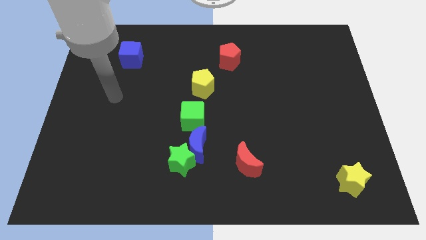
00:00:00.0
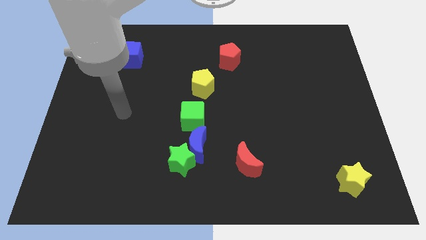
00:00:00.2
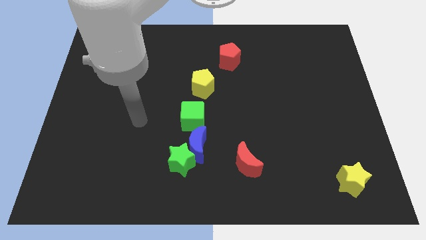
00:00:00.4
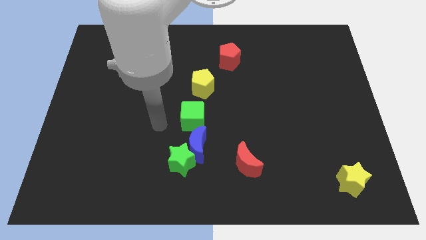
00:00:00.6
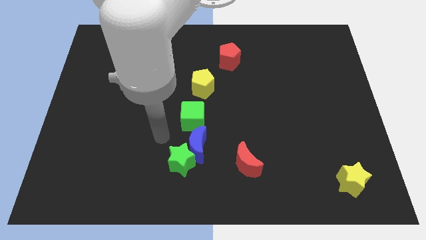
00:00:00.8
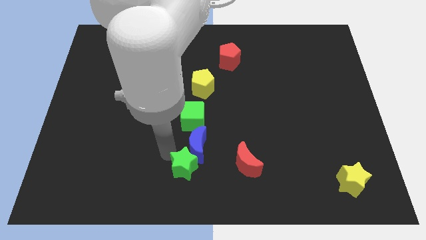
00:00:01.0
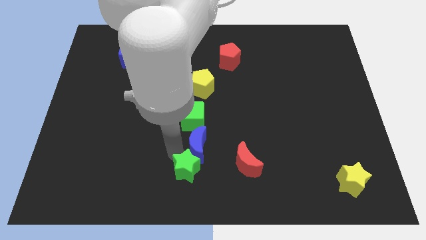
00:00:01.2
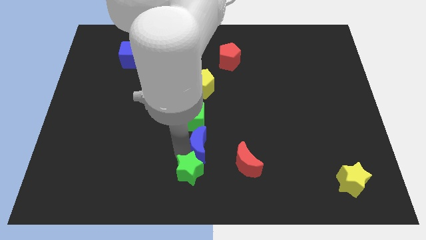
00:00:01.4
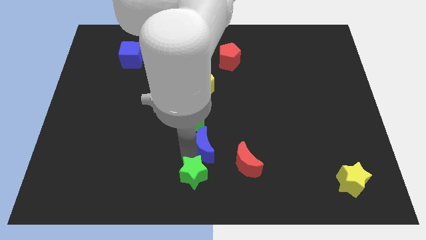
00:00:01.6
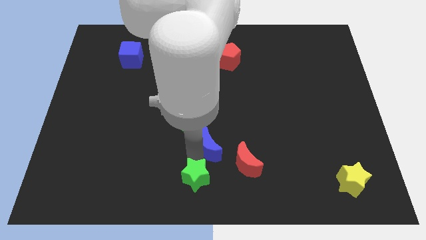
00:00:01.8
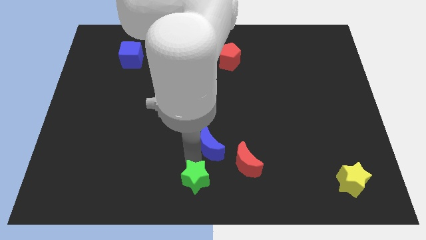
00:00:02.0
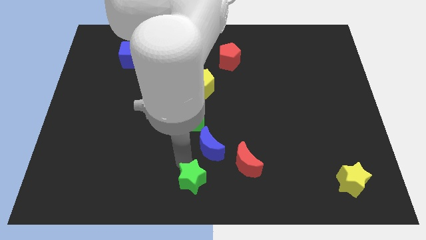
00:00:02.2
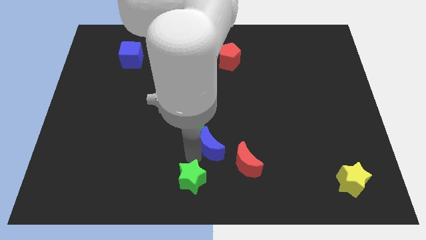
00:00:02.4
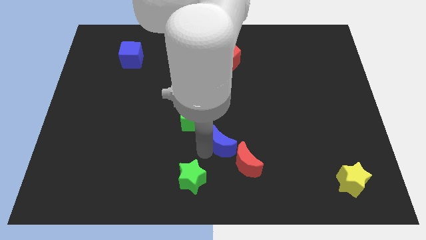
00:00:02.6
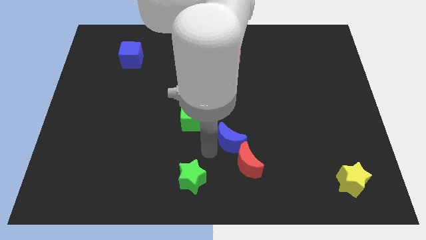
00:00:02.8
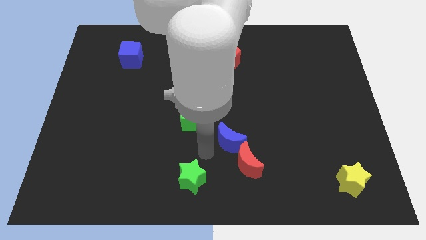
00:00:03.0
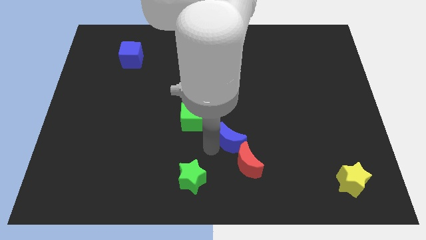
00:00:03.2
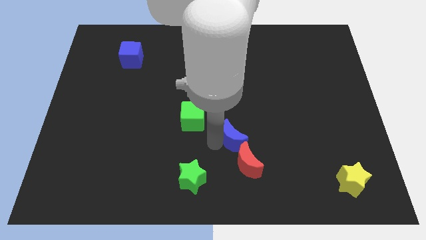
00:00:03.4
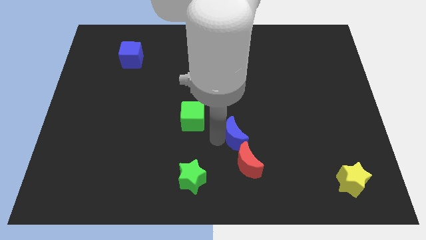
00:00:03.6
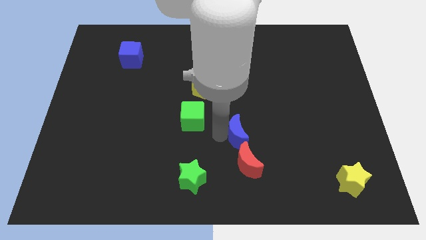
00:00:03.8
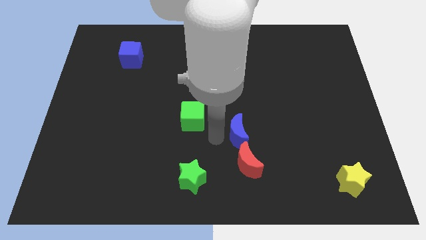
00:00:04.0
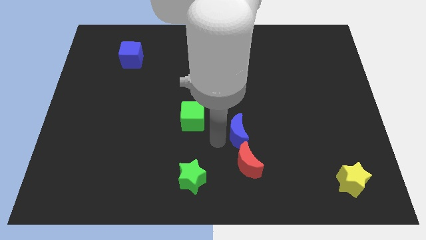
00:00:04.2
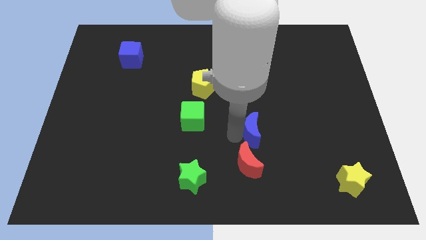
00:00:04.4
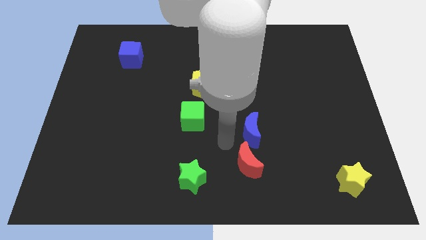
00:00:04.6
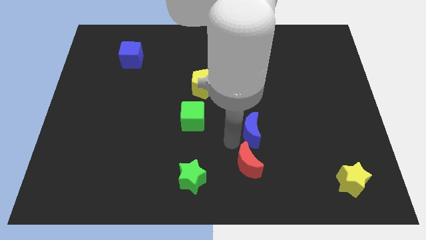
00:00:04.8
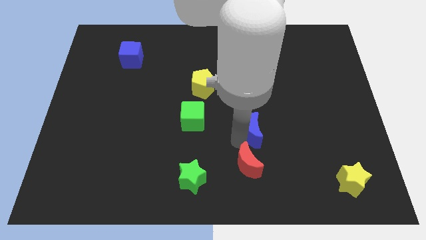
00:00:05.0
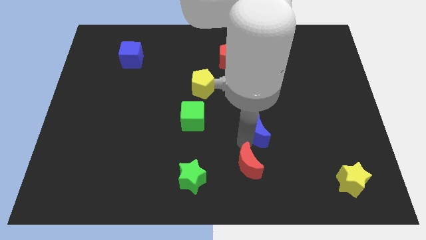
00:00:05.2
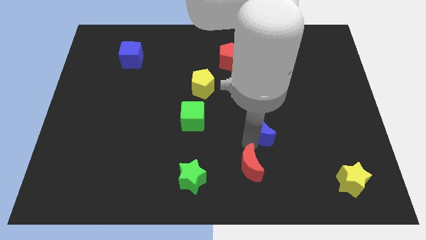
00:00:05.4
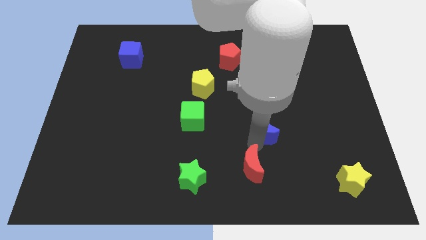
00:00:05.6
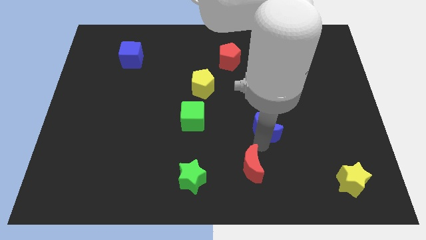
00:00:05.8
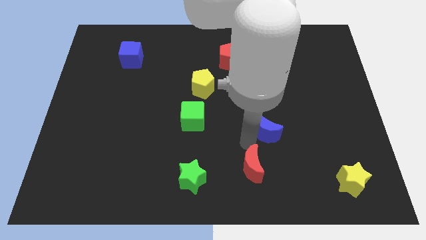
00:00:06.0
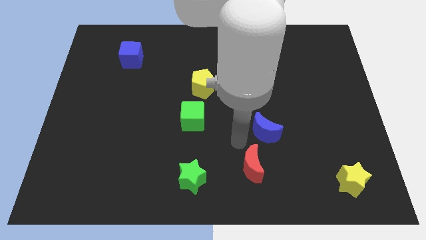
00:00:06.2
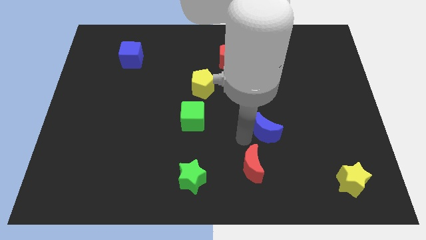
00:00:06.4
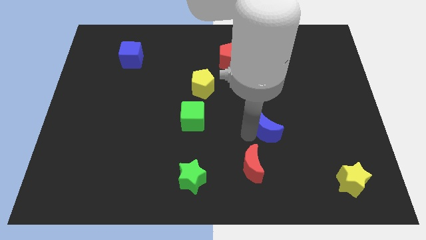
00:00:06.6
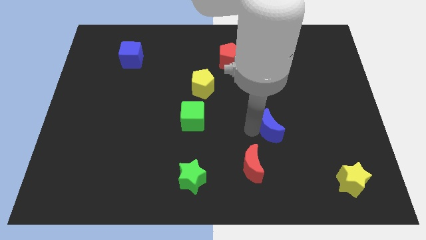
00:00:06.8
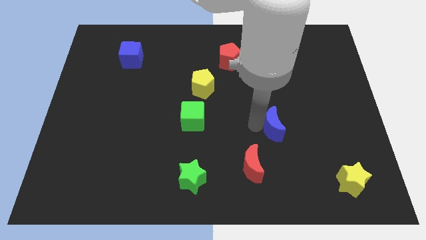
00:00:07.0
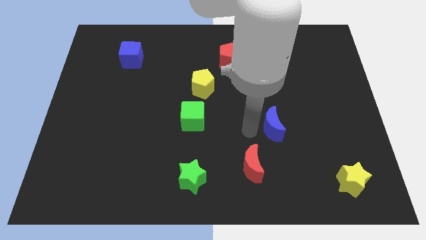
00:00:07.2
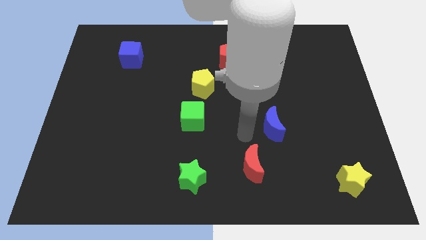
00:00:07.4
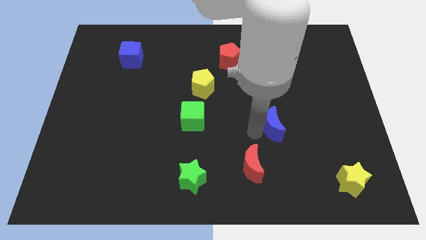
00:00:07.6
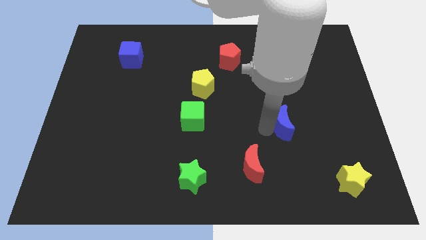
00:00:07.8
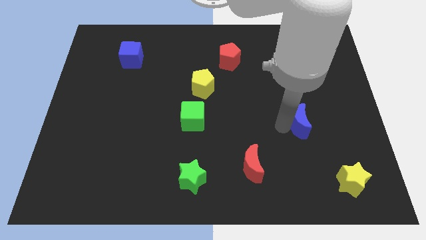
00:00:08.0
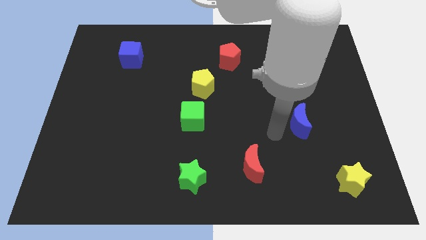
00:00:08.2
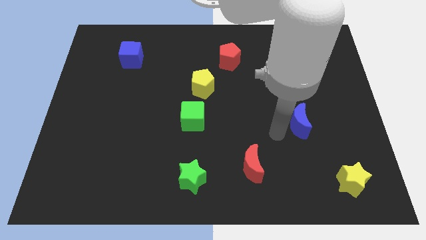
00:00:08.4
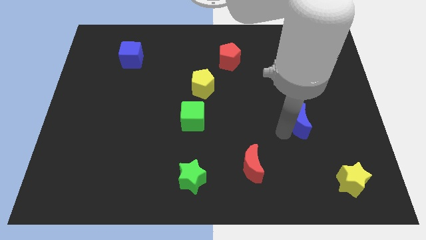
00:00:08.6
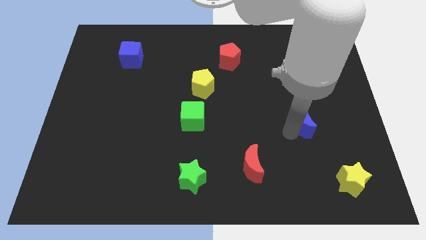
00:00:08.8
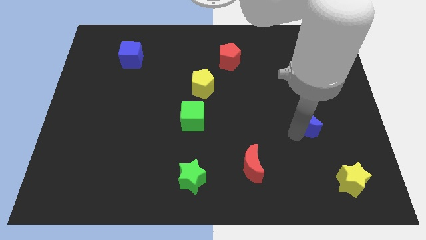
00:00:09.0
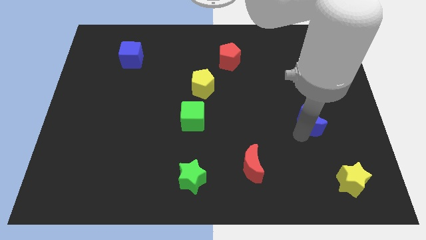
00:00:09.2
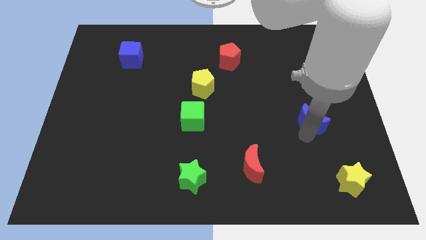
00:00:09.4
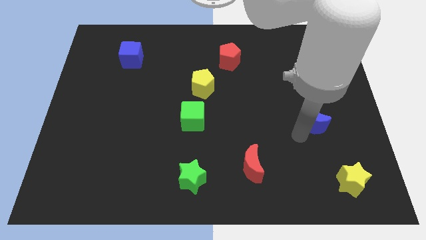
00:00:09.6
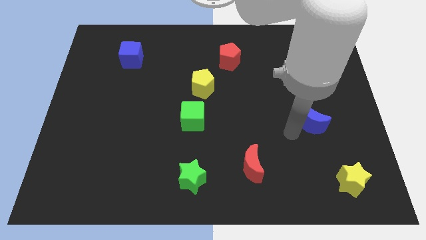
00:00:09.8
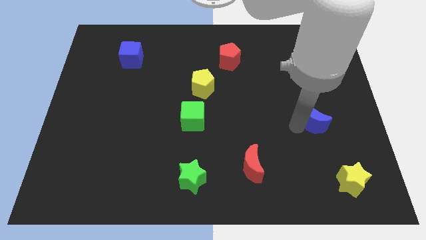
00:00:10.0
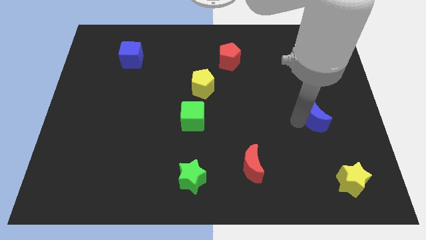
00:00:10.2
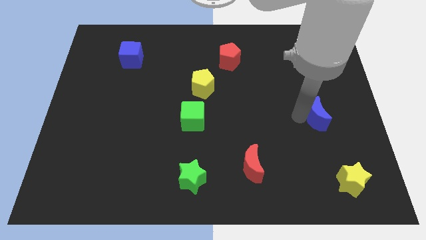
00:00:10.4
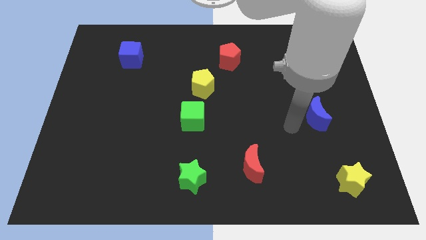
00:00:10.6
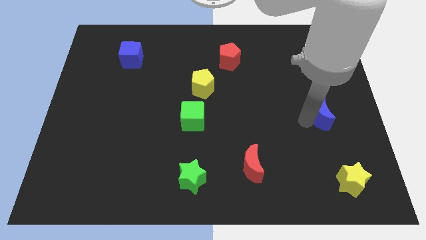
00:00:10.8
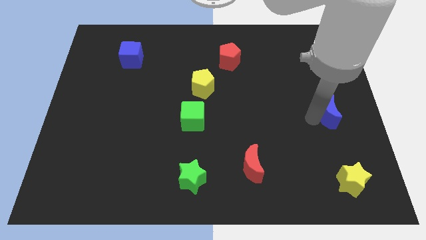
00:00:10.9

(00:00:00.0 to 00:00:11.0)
slide the blue moon to the right side
